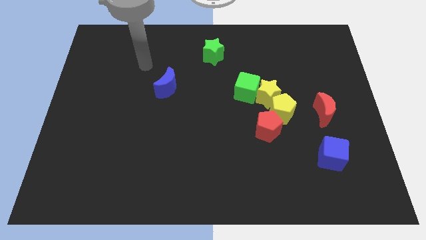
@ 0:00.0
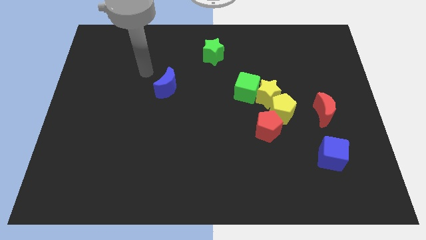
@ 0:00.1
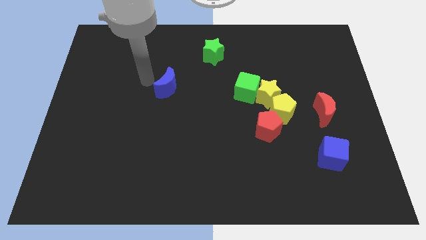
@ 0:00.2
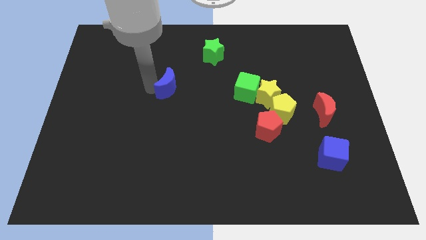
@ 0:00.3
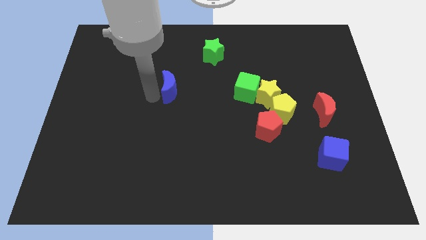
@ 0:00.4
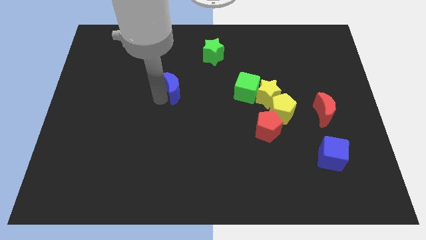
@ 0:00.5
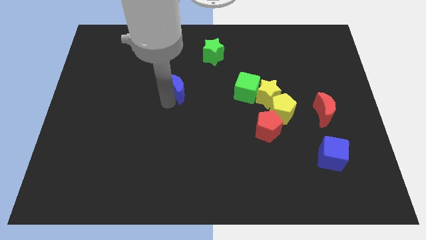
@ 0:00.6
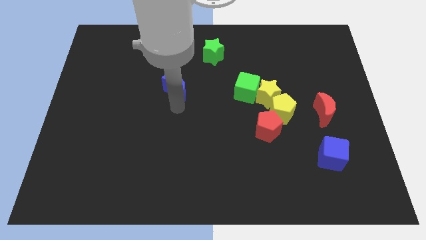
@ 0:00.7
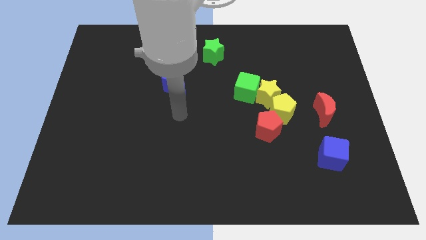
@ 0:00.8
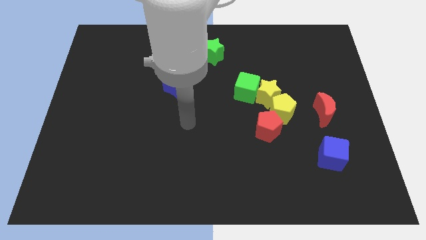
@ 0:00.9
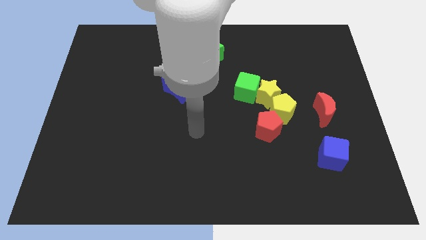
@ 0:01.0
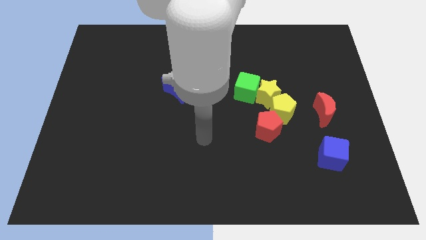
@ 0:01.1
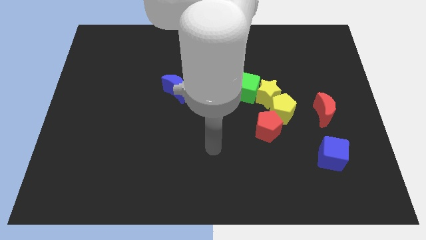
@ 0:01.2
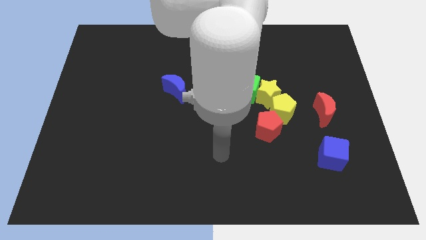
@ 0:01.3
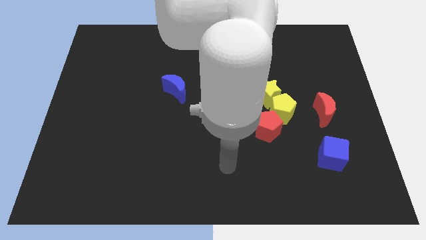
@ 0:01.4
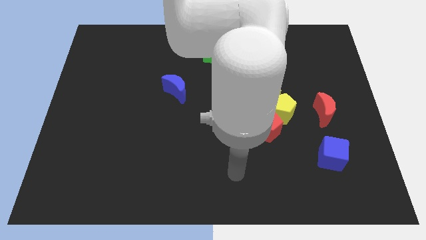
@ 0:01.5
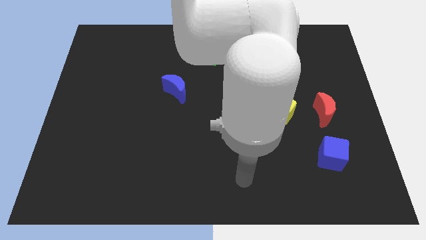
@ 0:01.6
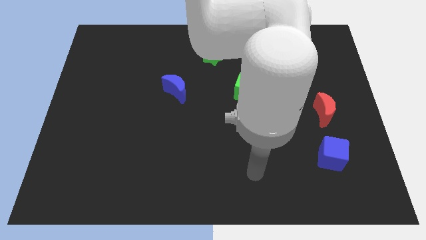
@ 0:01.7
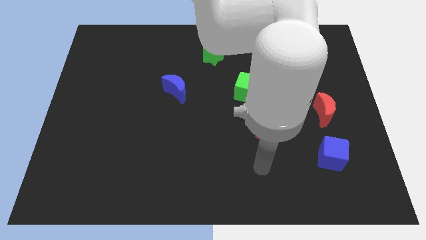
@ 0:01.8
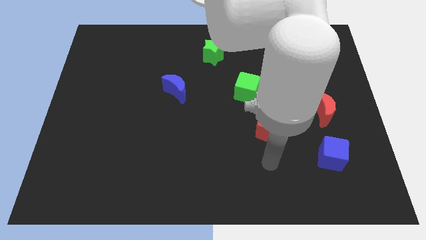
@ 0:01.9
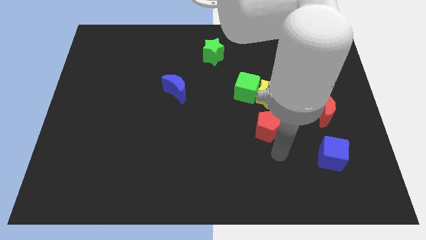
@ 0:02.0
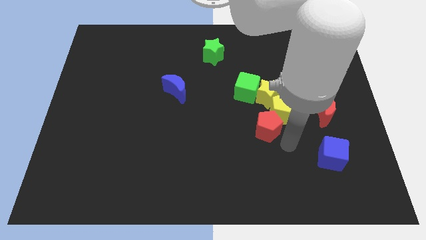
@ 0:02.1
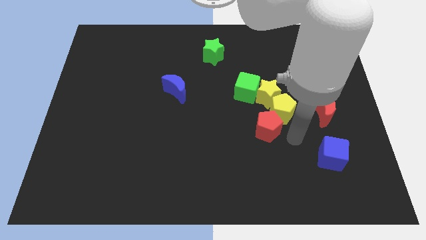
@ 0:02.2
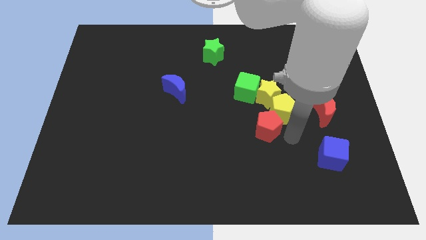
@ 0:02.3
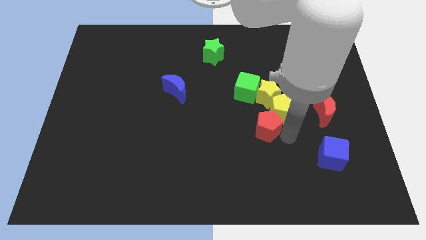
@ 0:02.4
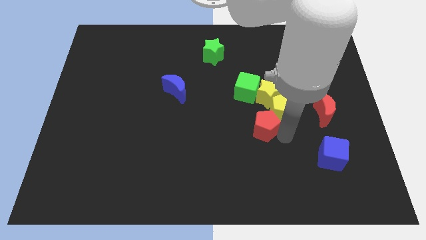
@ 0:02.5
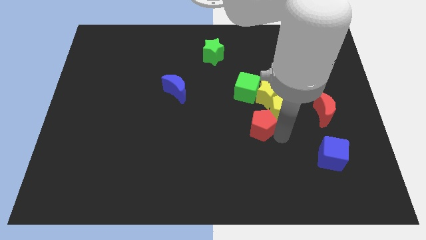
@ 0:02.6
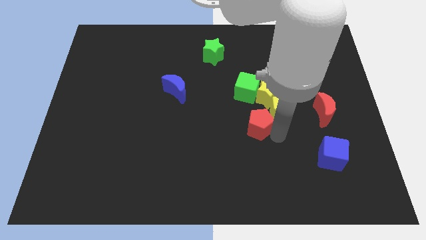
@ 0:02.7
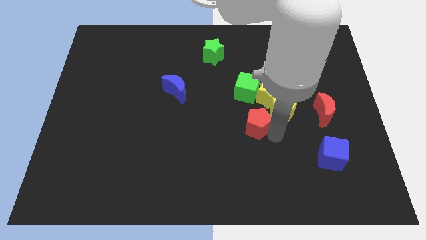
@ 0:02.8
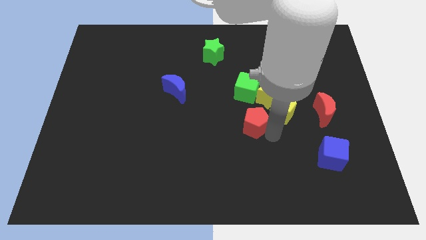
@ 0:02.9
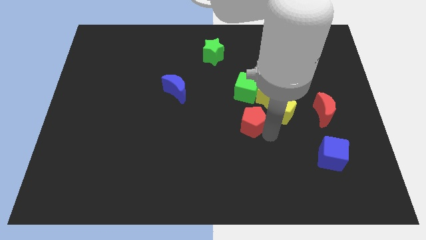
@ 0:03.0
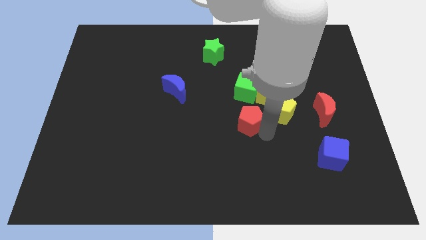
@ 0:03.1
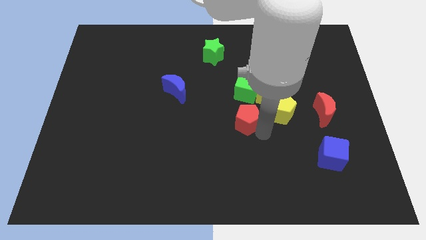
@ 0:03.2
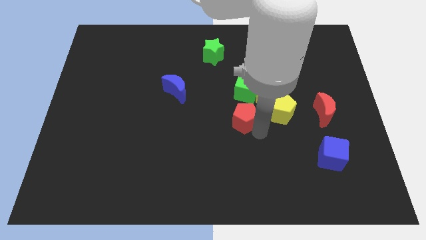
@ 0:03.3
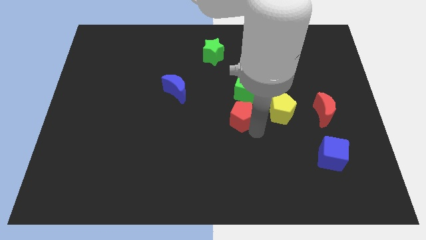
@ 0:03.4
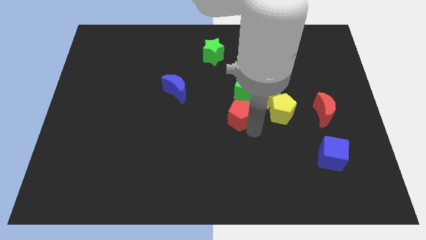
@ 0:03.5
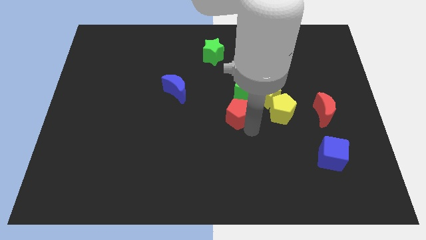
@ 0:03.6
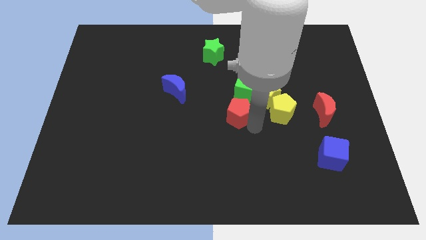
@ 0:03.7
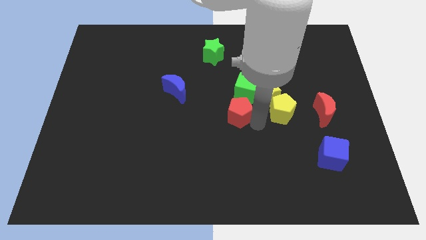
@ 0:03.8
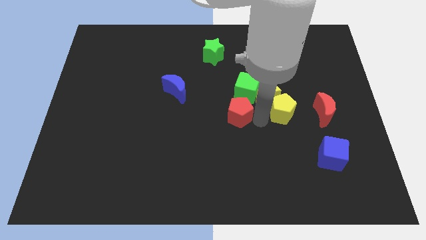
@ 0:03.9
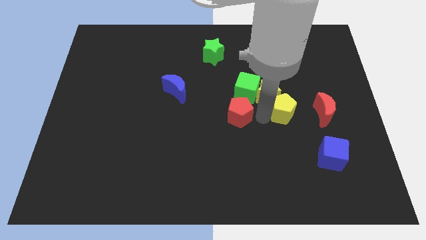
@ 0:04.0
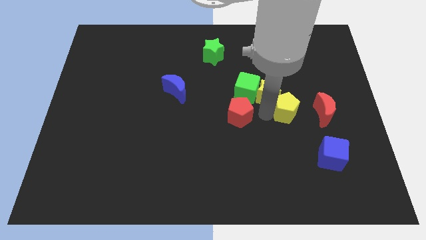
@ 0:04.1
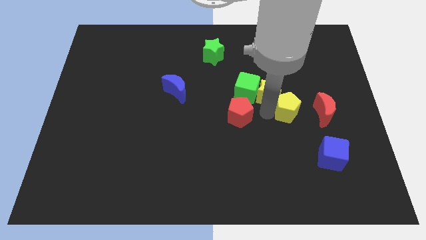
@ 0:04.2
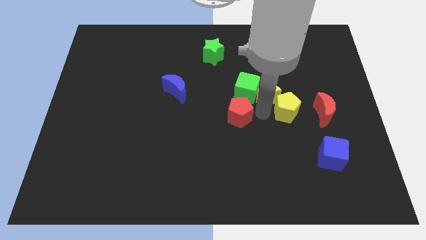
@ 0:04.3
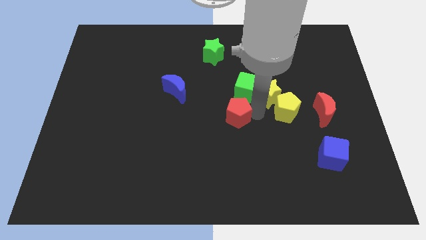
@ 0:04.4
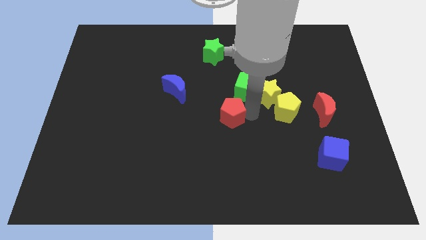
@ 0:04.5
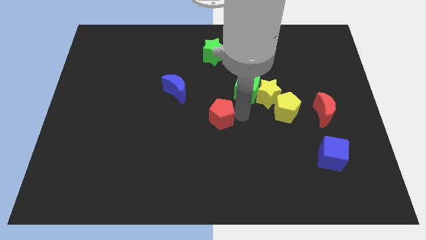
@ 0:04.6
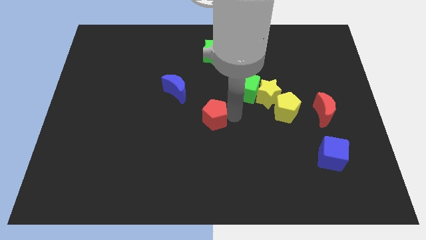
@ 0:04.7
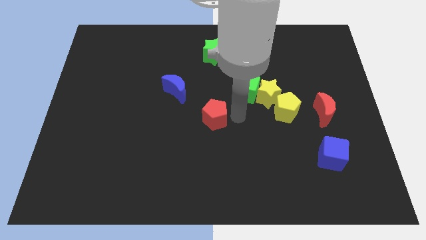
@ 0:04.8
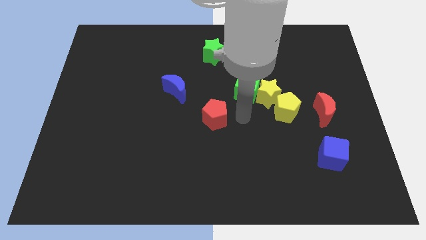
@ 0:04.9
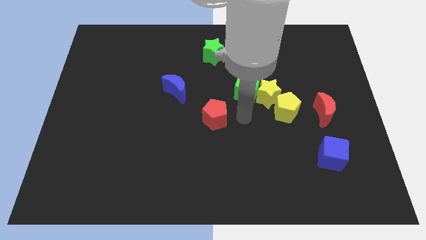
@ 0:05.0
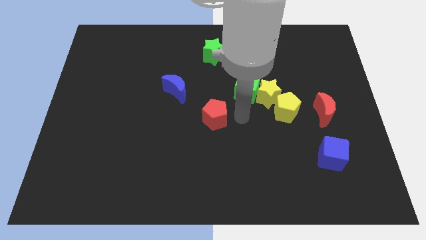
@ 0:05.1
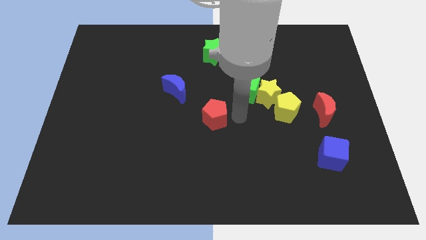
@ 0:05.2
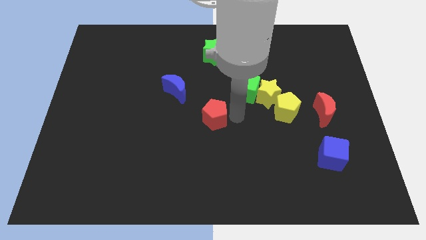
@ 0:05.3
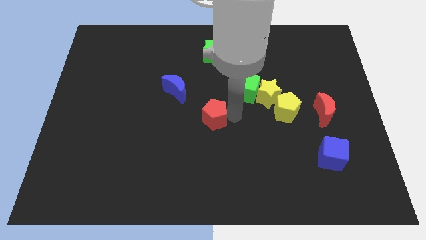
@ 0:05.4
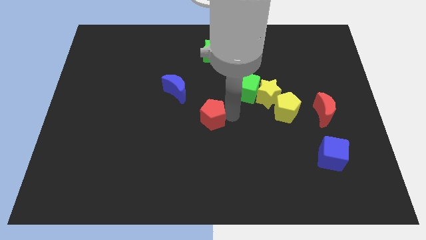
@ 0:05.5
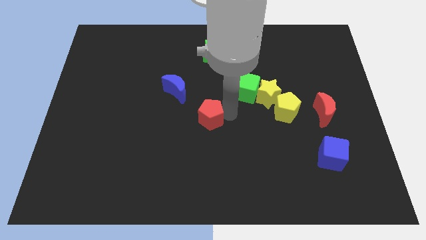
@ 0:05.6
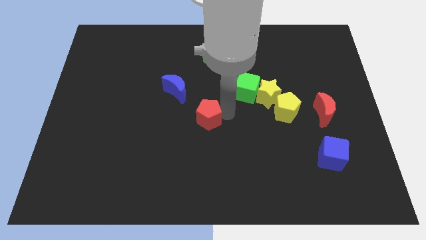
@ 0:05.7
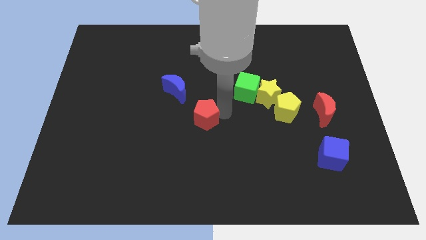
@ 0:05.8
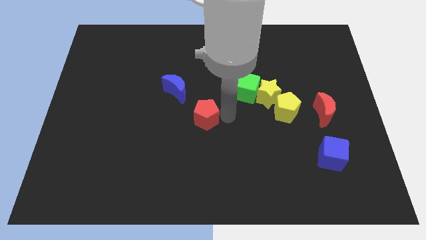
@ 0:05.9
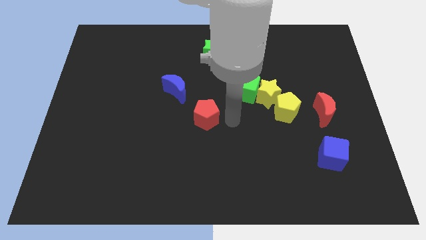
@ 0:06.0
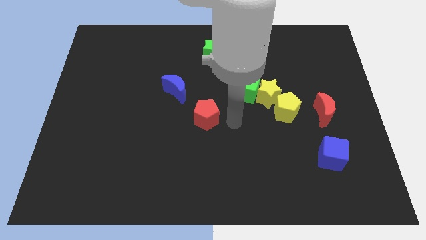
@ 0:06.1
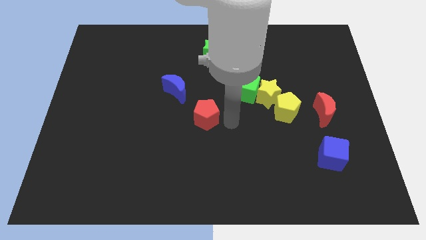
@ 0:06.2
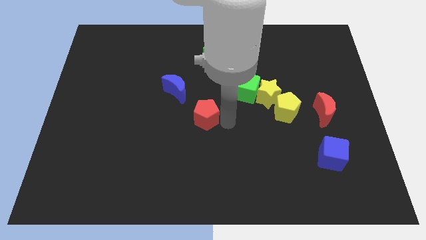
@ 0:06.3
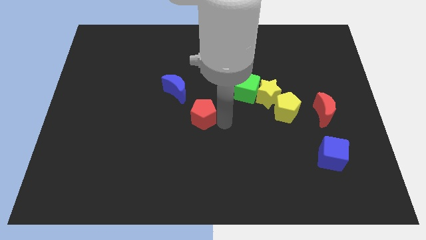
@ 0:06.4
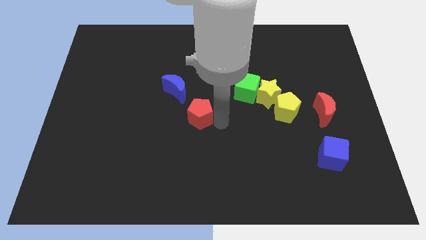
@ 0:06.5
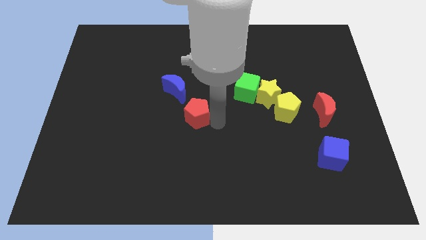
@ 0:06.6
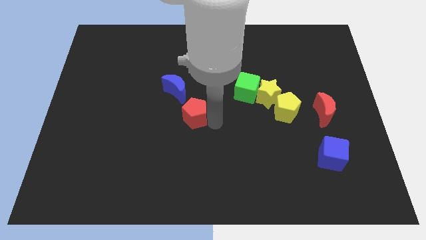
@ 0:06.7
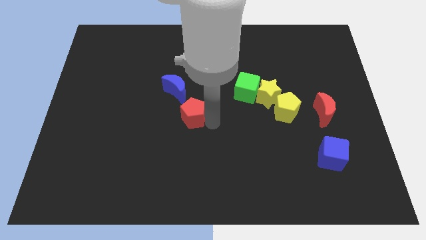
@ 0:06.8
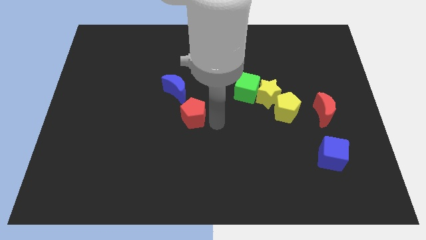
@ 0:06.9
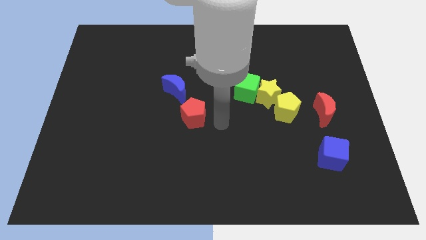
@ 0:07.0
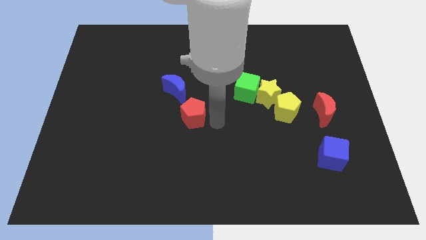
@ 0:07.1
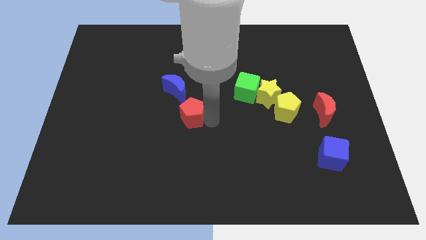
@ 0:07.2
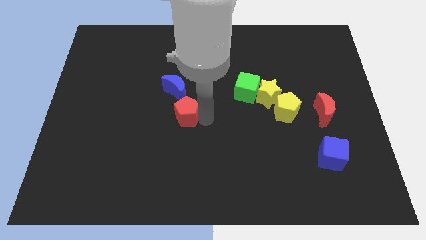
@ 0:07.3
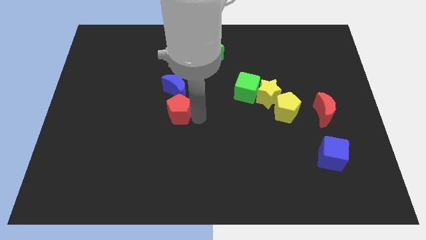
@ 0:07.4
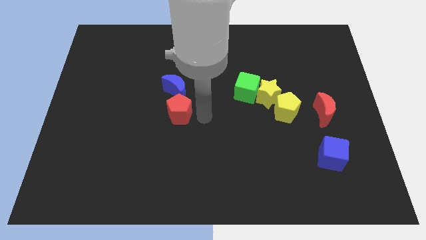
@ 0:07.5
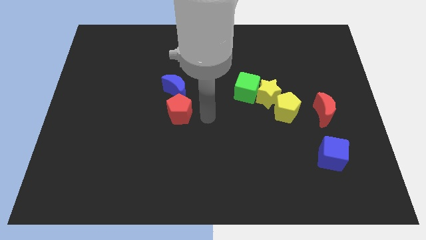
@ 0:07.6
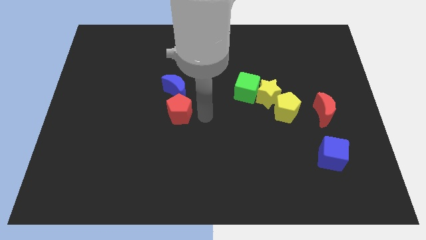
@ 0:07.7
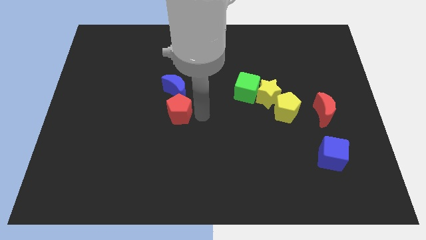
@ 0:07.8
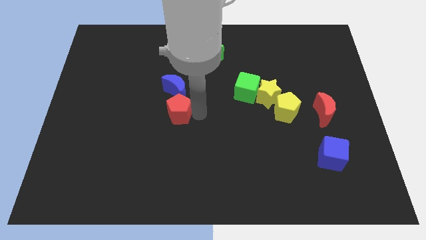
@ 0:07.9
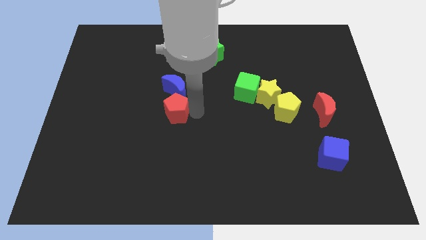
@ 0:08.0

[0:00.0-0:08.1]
move the red pentagon diagonally down and to the left of the blue moon
